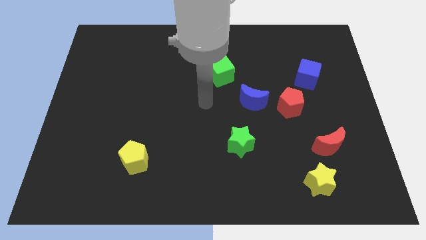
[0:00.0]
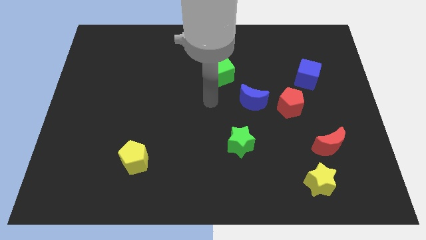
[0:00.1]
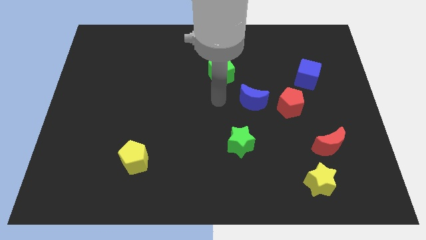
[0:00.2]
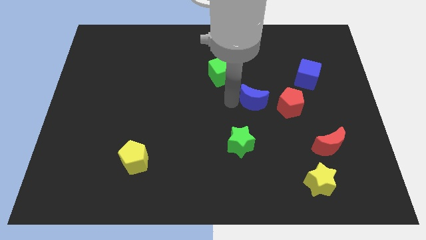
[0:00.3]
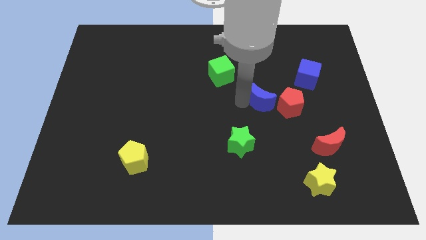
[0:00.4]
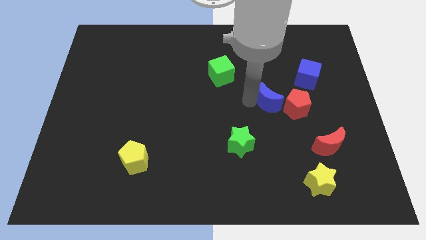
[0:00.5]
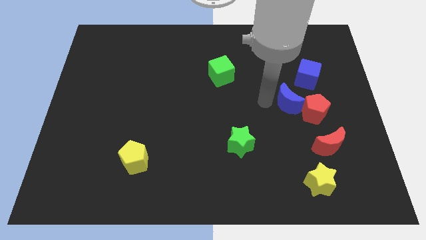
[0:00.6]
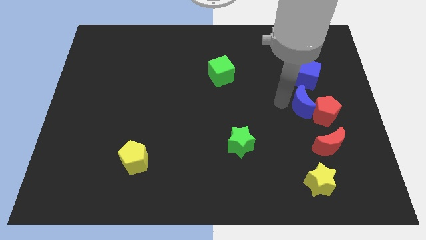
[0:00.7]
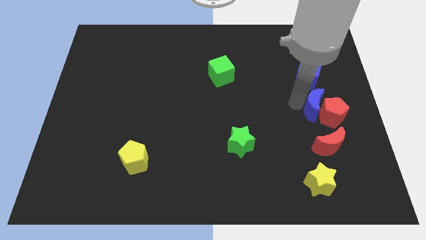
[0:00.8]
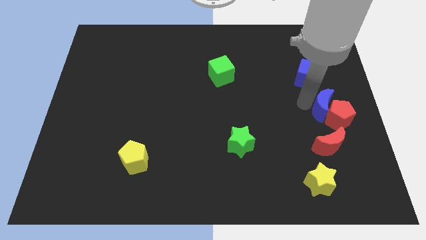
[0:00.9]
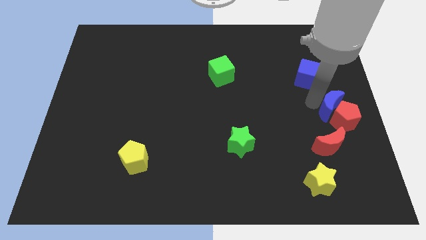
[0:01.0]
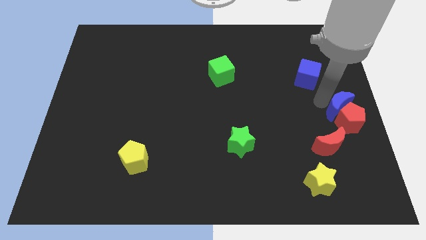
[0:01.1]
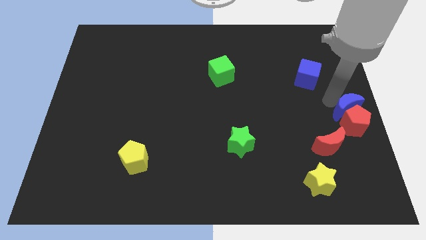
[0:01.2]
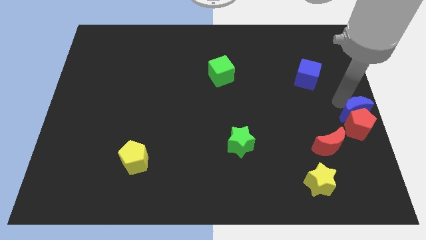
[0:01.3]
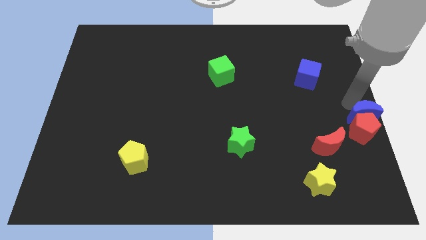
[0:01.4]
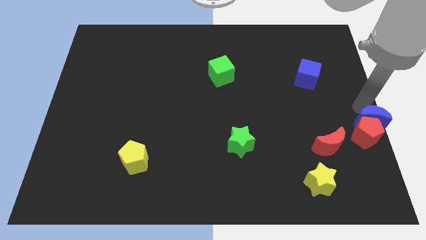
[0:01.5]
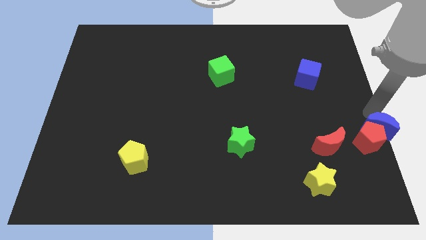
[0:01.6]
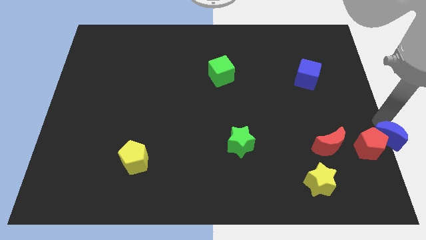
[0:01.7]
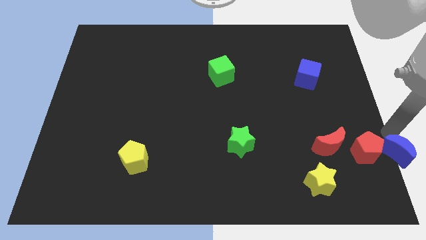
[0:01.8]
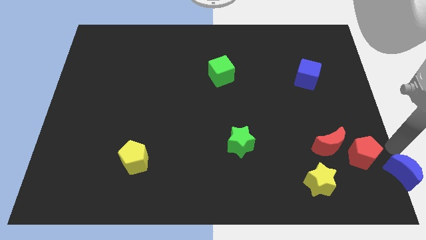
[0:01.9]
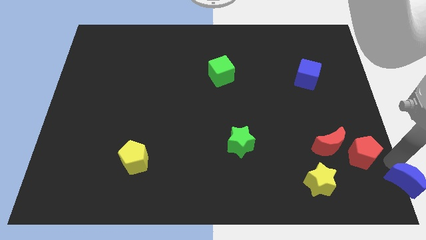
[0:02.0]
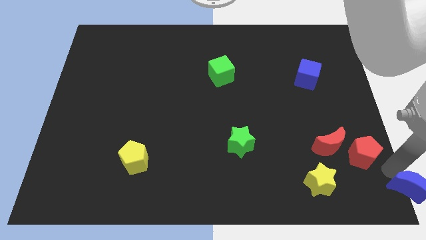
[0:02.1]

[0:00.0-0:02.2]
separate the red pentagon from the blue moon

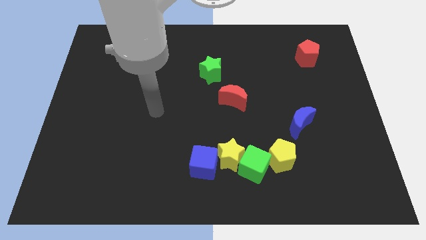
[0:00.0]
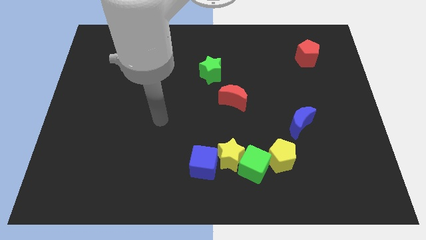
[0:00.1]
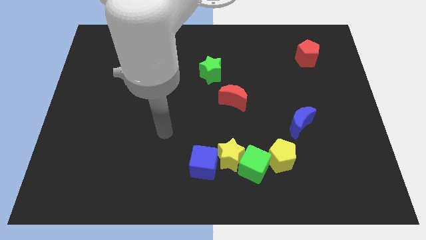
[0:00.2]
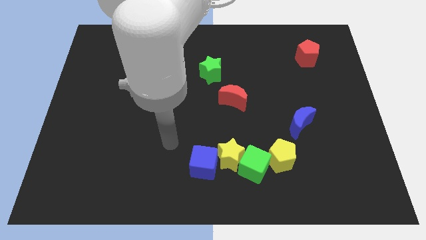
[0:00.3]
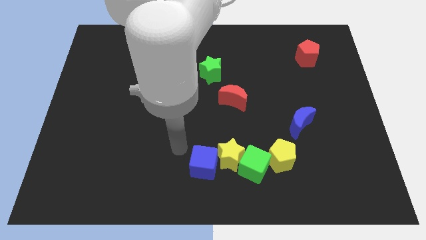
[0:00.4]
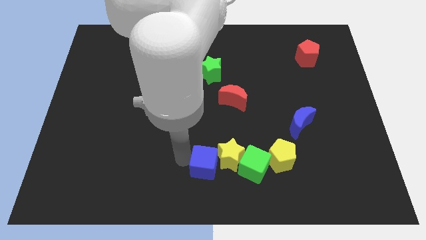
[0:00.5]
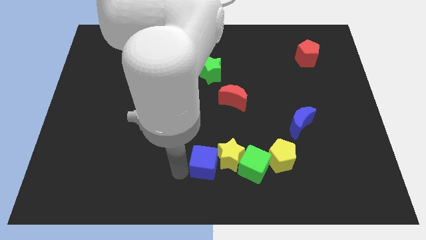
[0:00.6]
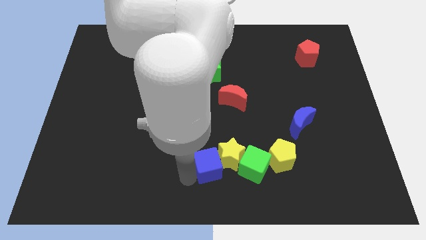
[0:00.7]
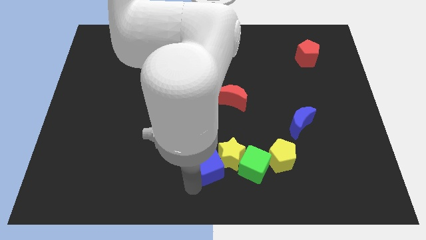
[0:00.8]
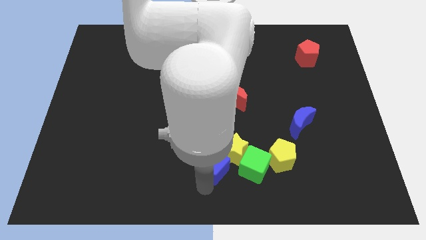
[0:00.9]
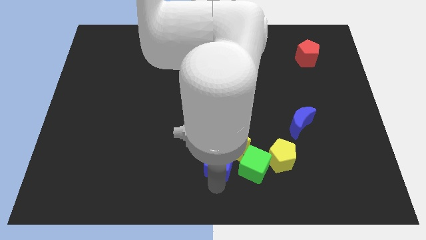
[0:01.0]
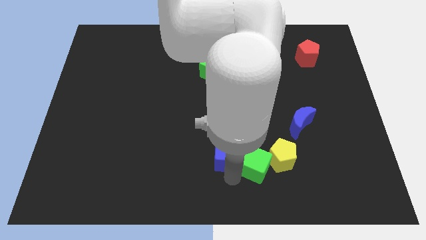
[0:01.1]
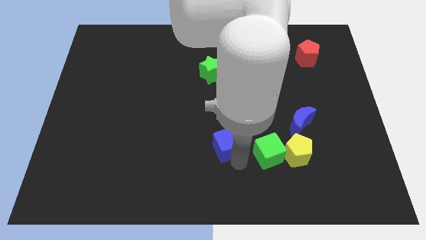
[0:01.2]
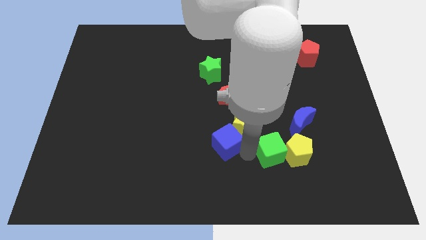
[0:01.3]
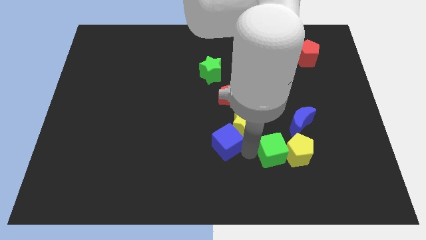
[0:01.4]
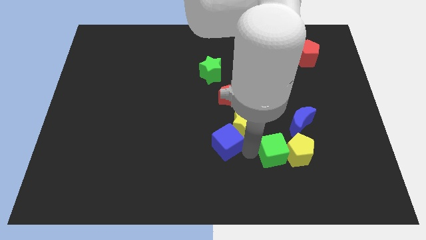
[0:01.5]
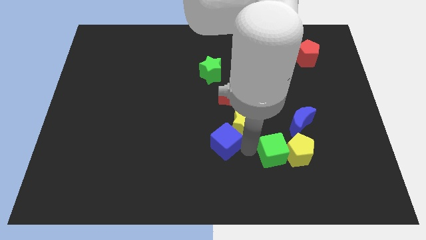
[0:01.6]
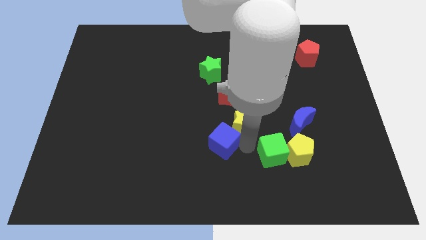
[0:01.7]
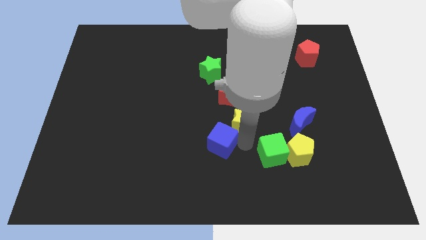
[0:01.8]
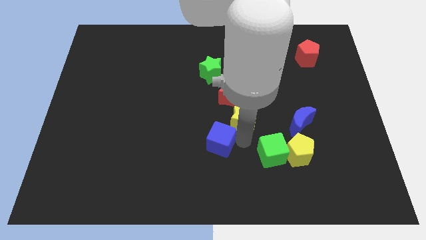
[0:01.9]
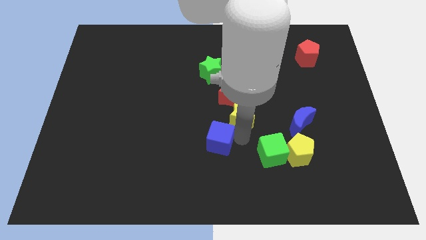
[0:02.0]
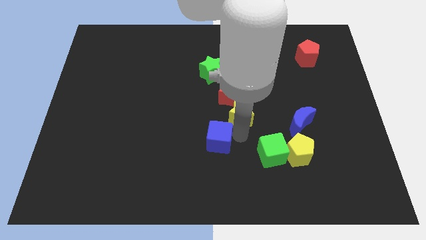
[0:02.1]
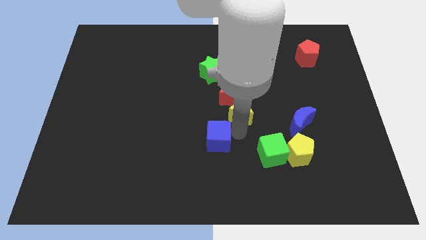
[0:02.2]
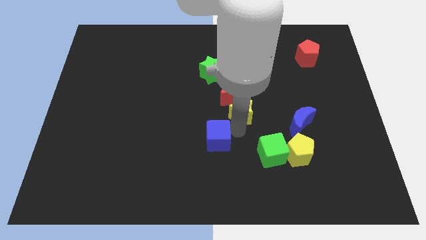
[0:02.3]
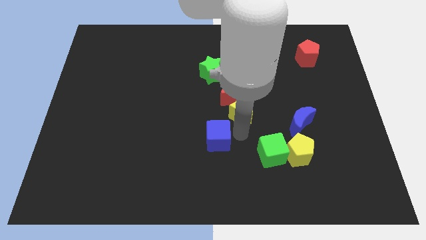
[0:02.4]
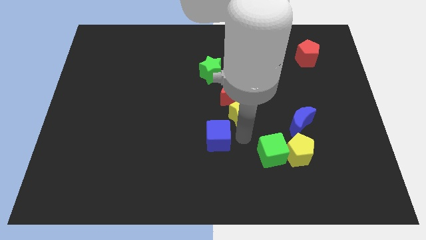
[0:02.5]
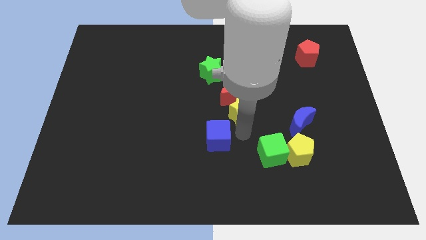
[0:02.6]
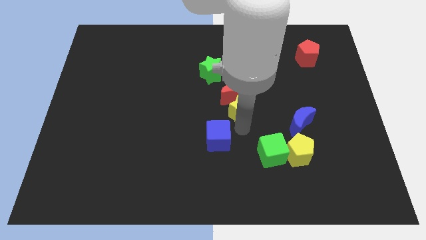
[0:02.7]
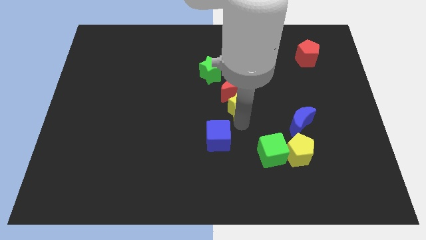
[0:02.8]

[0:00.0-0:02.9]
separate the yellow star from the green cube and blue cube

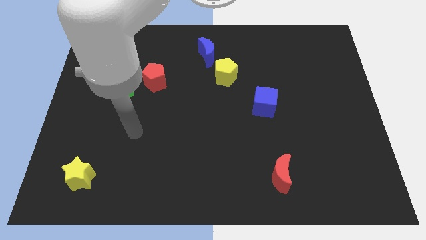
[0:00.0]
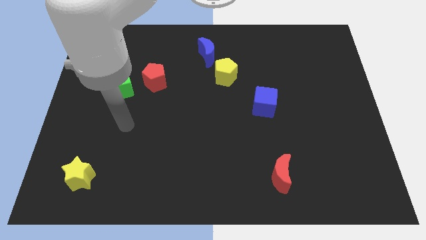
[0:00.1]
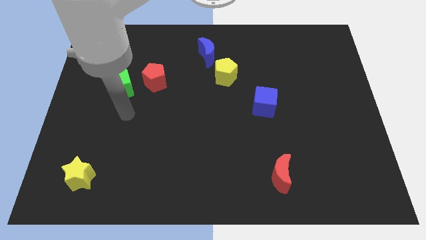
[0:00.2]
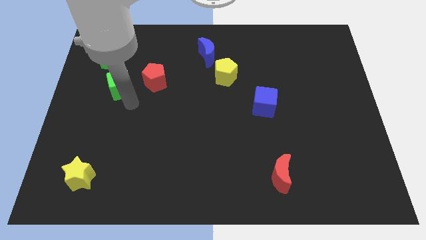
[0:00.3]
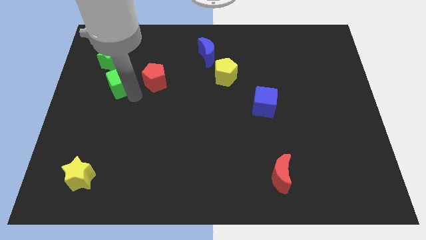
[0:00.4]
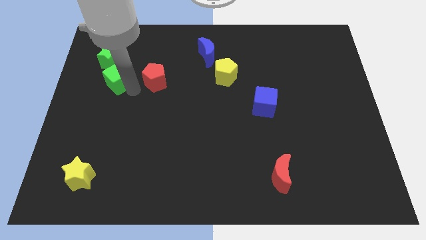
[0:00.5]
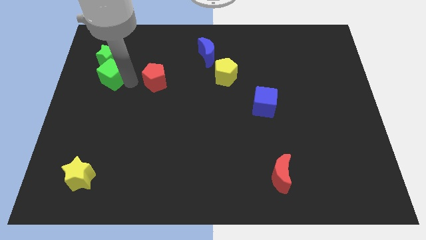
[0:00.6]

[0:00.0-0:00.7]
separate the red pentagon from the green cube

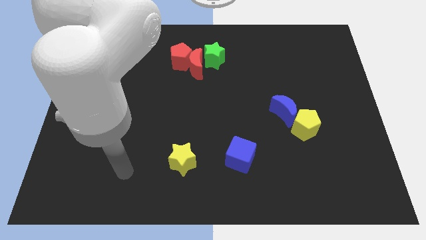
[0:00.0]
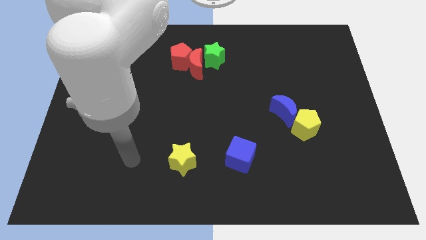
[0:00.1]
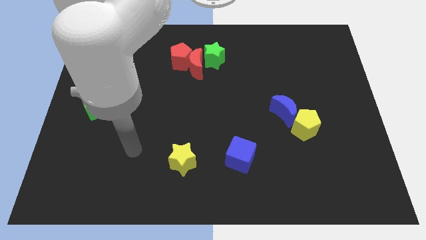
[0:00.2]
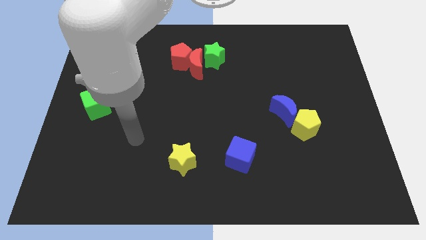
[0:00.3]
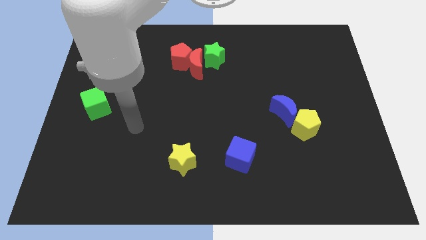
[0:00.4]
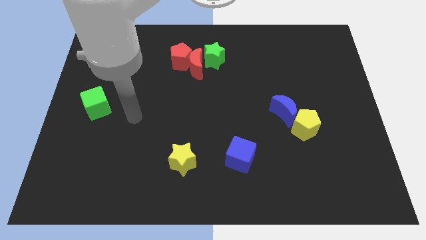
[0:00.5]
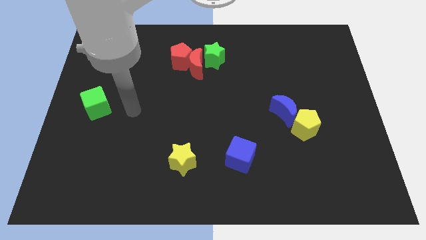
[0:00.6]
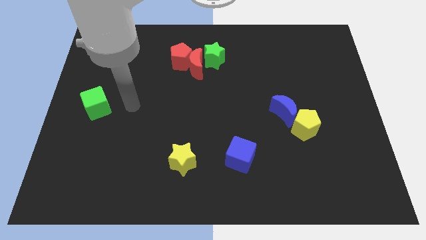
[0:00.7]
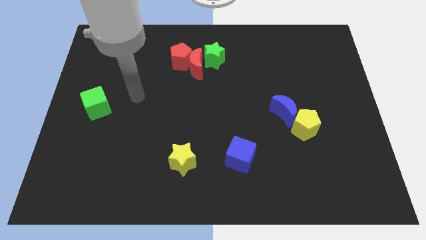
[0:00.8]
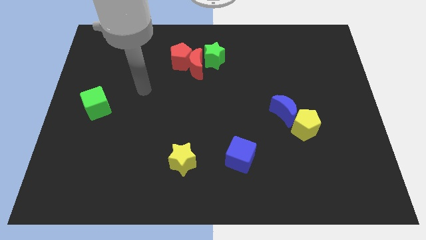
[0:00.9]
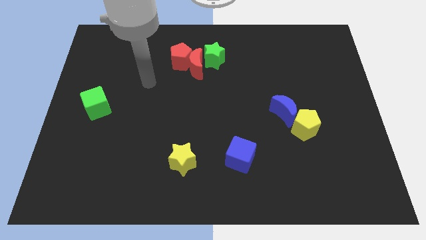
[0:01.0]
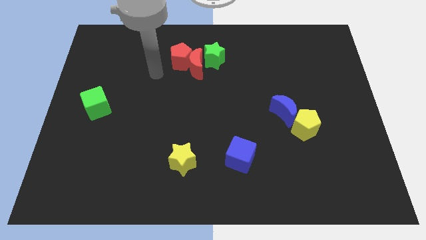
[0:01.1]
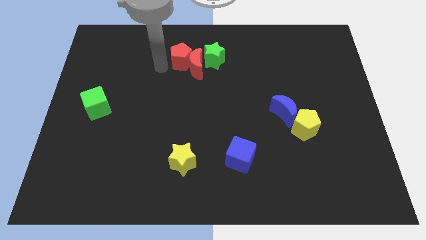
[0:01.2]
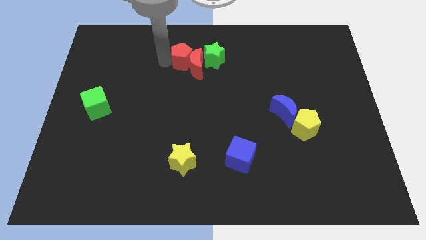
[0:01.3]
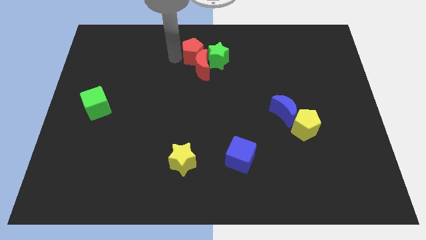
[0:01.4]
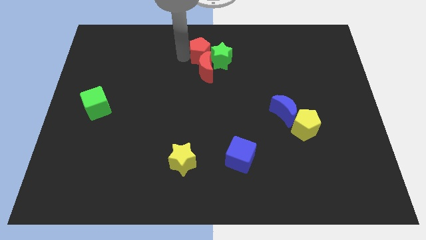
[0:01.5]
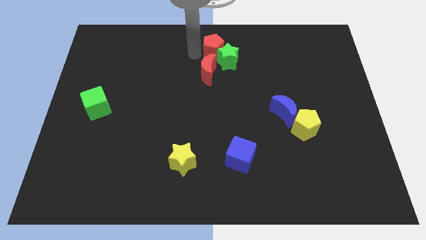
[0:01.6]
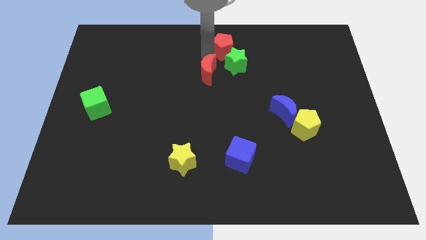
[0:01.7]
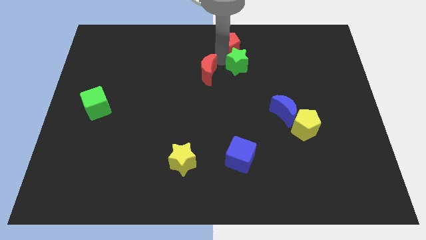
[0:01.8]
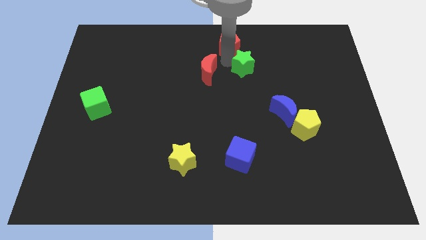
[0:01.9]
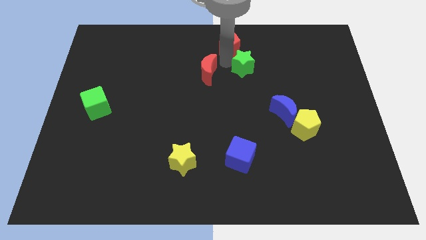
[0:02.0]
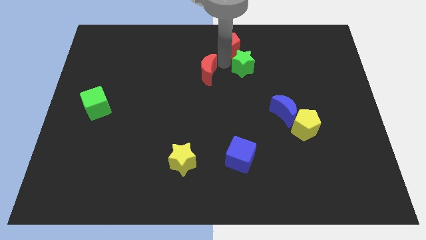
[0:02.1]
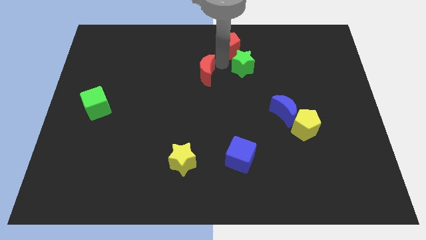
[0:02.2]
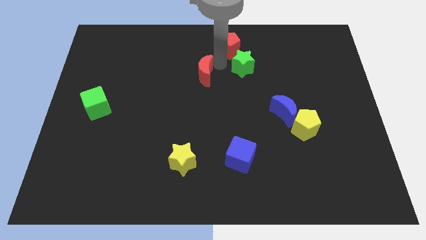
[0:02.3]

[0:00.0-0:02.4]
pull the red moon apart from the red pentagon and green star

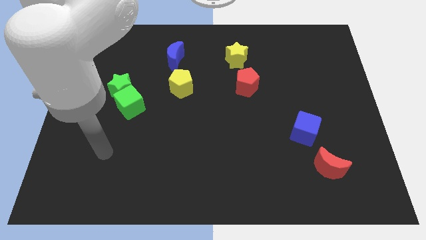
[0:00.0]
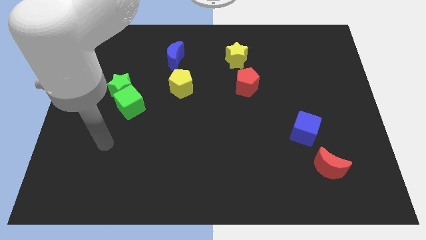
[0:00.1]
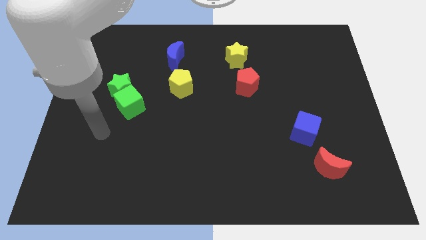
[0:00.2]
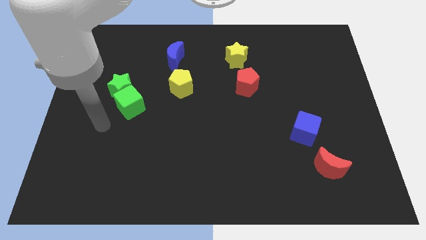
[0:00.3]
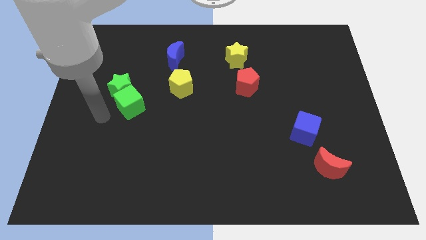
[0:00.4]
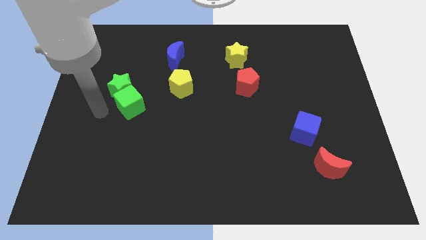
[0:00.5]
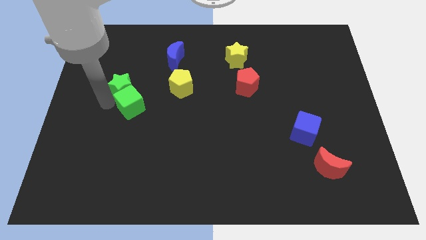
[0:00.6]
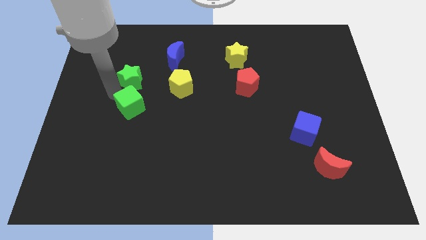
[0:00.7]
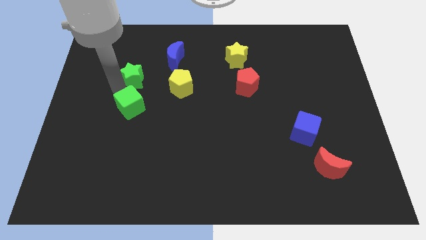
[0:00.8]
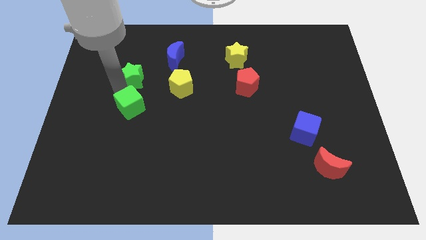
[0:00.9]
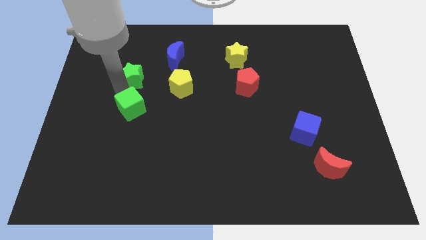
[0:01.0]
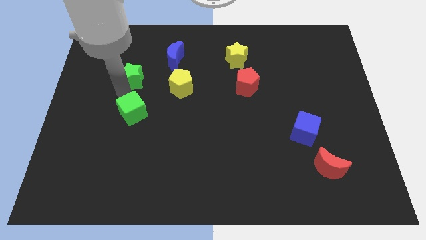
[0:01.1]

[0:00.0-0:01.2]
pull the green cube apart from the green star

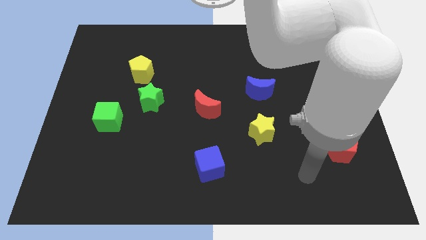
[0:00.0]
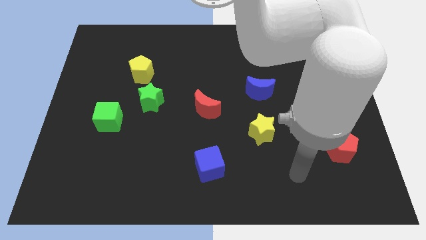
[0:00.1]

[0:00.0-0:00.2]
pull the green star apart from the yellow pentagon
